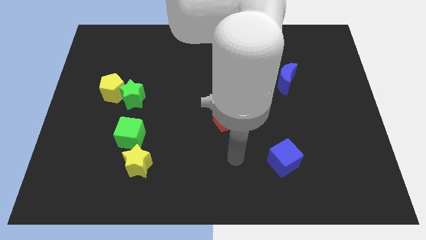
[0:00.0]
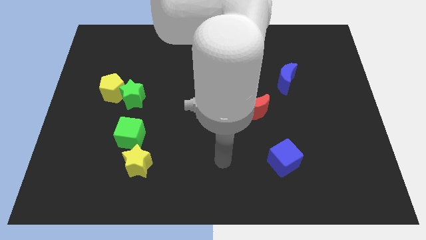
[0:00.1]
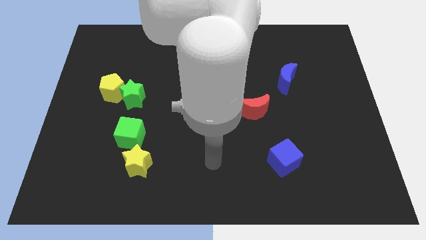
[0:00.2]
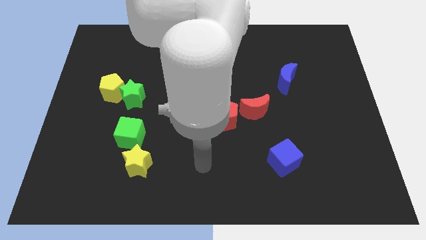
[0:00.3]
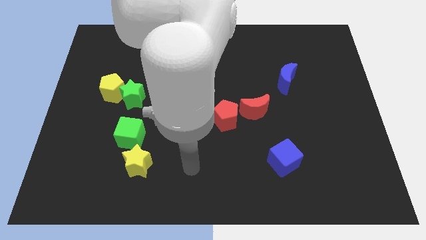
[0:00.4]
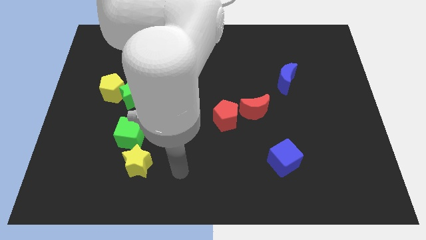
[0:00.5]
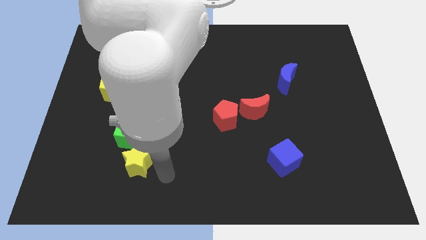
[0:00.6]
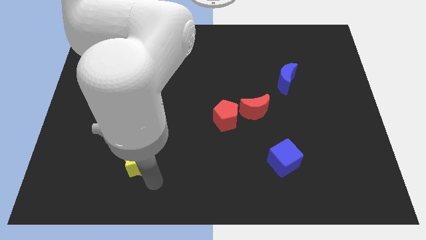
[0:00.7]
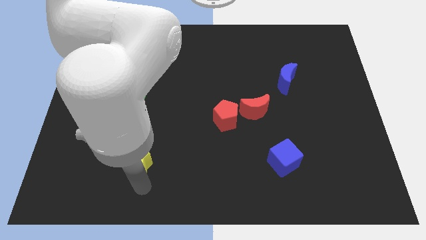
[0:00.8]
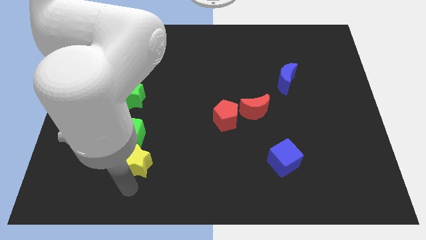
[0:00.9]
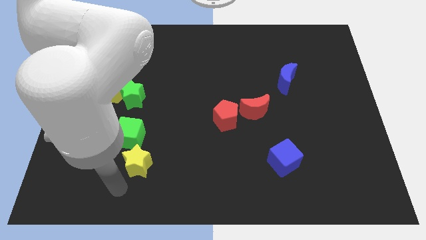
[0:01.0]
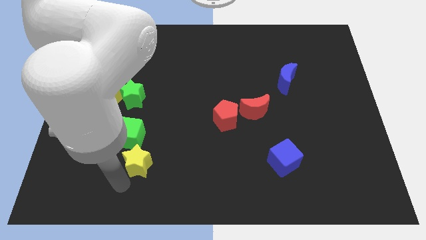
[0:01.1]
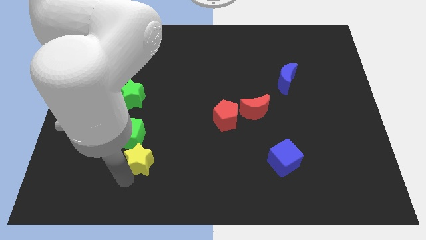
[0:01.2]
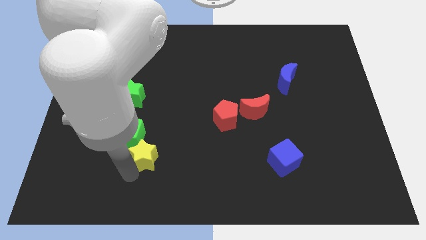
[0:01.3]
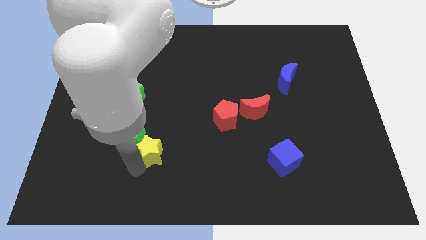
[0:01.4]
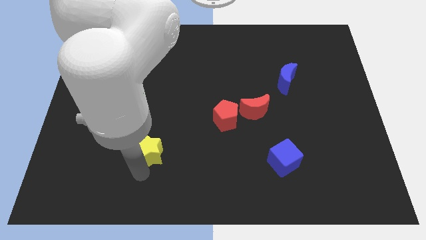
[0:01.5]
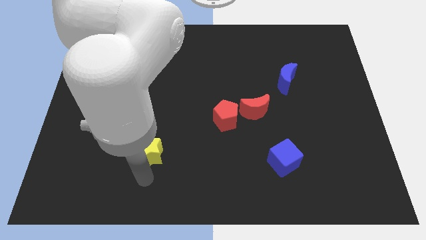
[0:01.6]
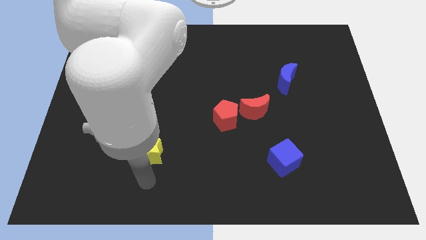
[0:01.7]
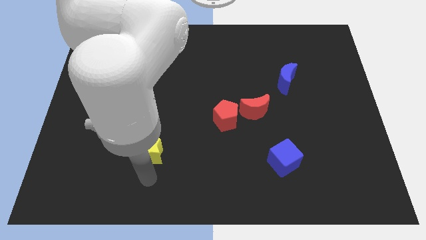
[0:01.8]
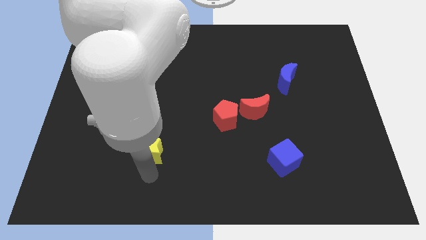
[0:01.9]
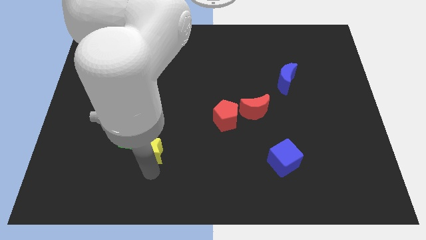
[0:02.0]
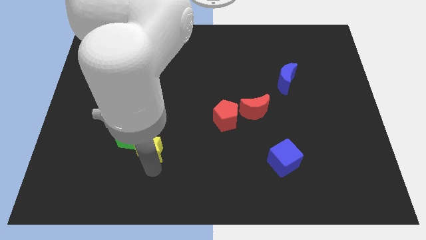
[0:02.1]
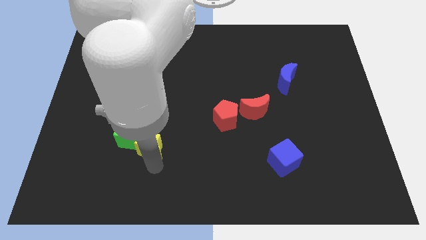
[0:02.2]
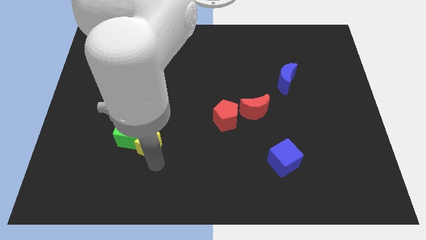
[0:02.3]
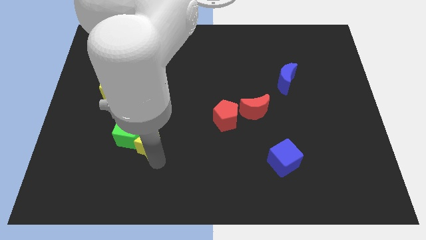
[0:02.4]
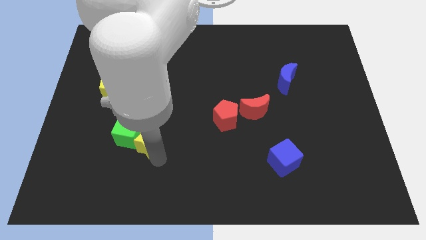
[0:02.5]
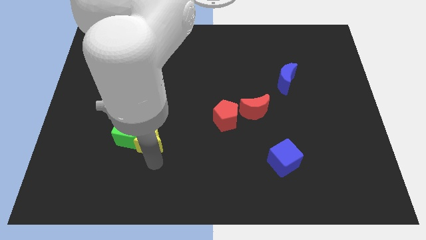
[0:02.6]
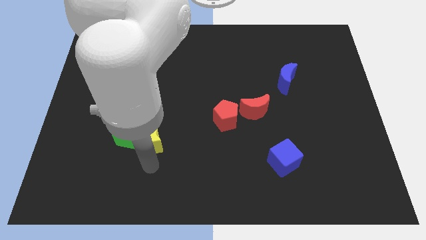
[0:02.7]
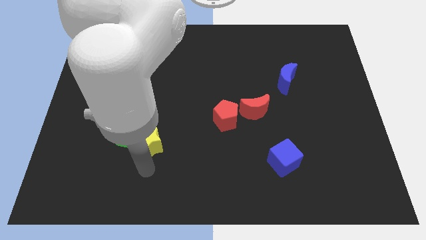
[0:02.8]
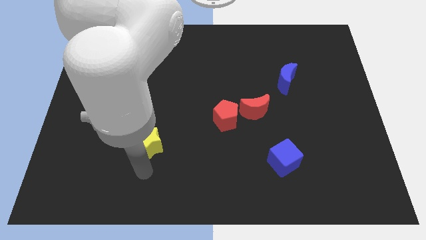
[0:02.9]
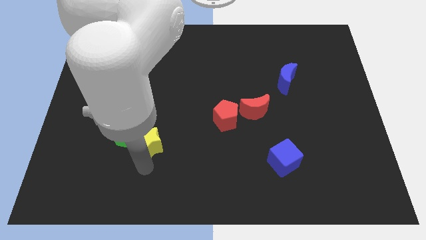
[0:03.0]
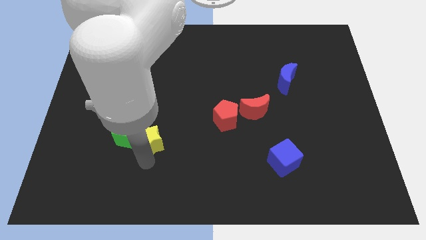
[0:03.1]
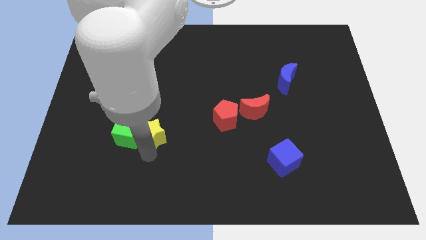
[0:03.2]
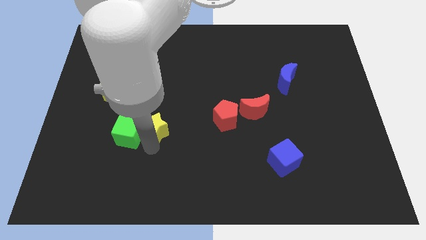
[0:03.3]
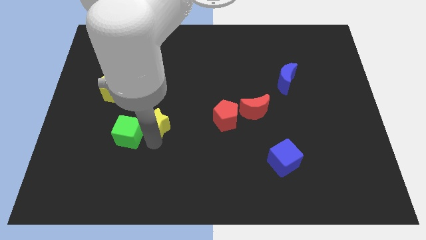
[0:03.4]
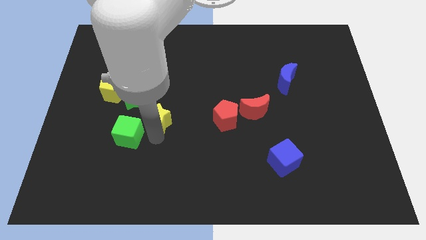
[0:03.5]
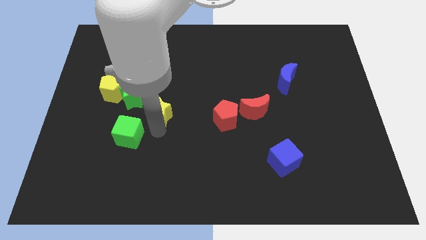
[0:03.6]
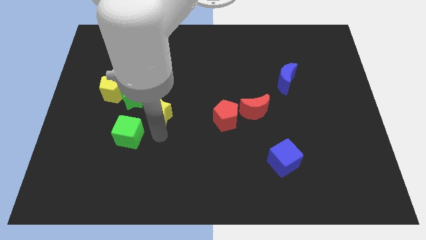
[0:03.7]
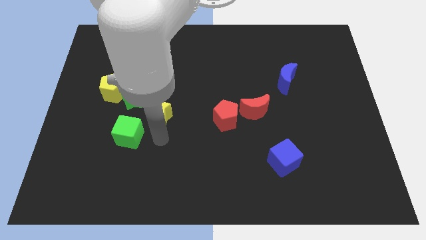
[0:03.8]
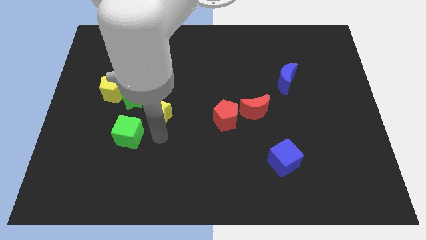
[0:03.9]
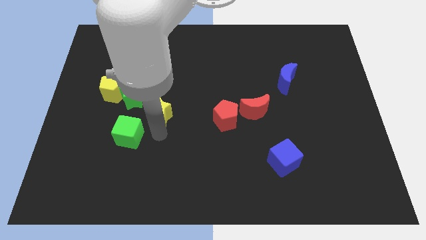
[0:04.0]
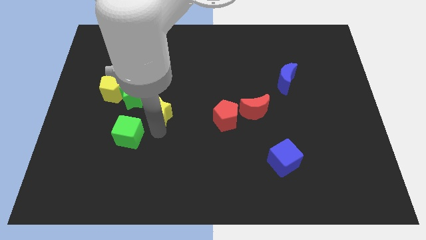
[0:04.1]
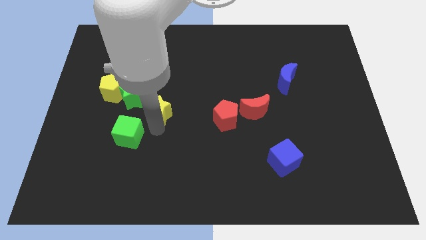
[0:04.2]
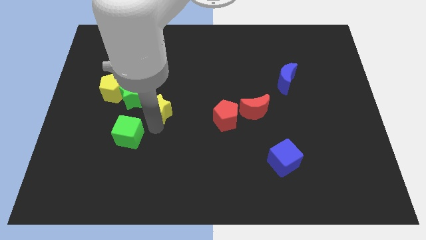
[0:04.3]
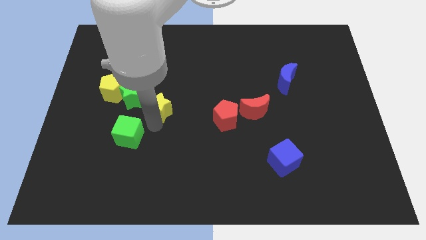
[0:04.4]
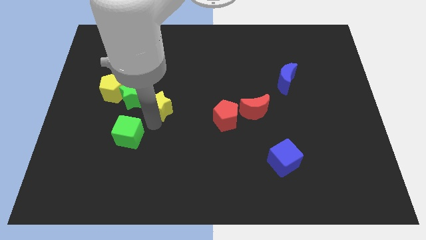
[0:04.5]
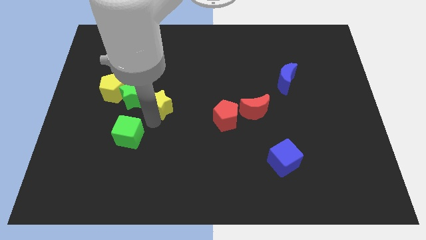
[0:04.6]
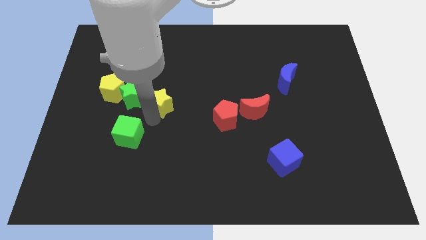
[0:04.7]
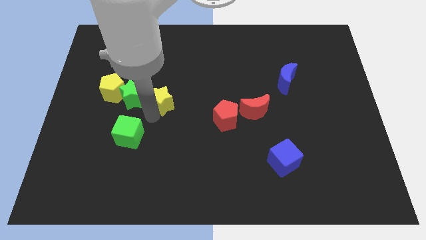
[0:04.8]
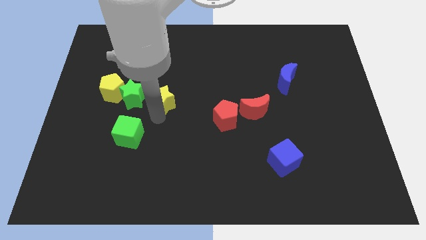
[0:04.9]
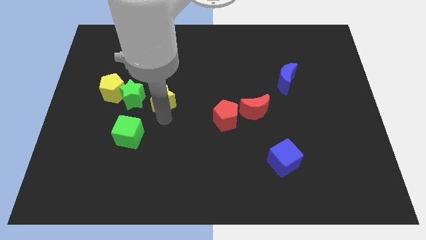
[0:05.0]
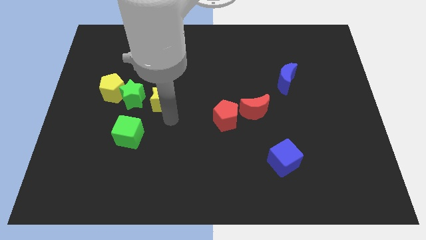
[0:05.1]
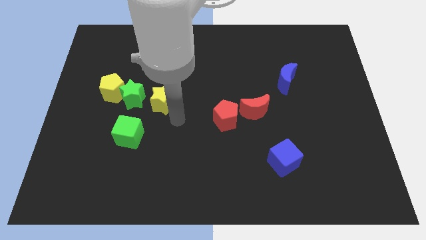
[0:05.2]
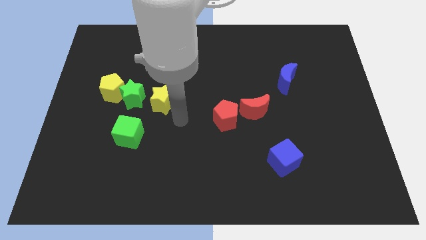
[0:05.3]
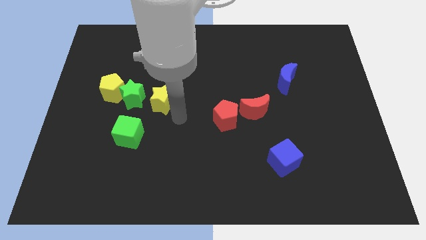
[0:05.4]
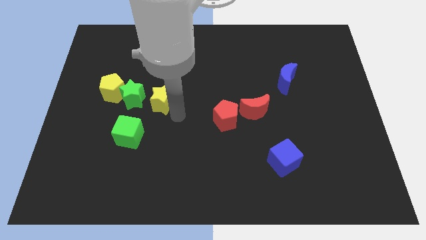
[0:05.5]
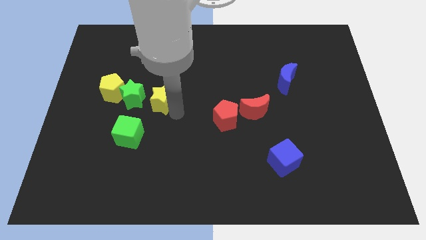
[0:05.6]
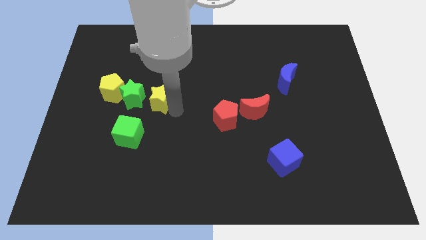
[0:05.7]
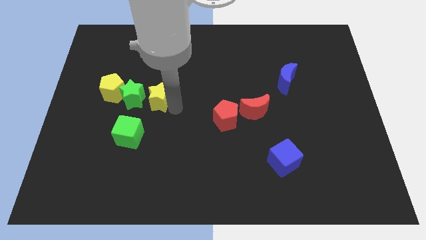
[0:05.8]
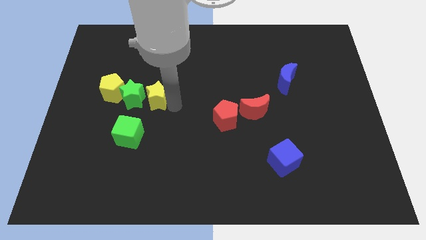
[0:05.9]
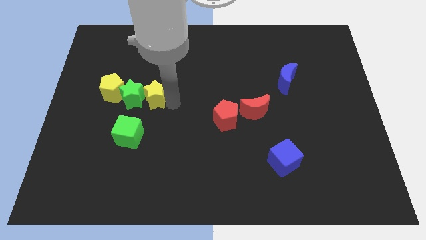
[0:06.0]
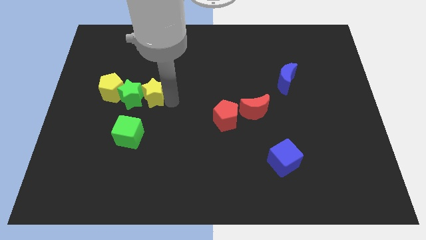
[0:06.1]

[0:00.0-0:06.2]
move the yellow star to the top side of the green cube
